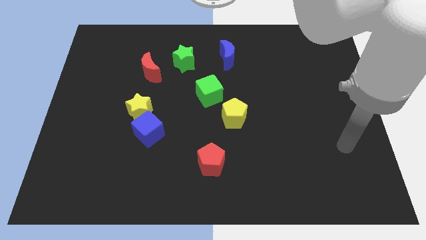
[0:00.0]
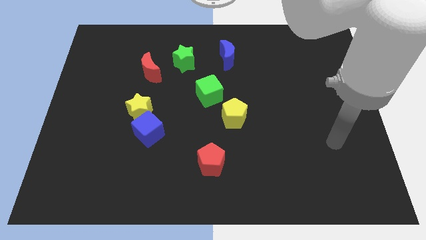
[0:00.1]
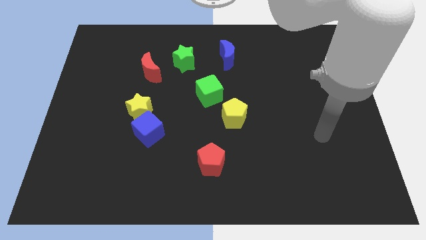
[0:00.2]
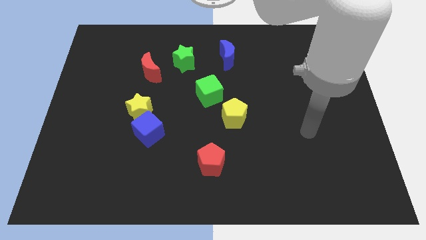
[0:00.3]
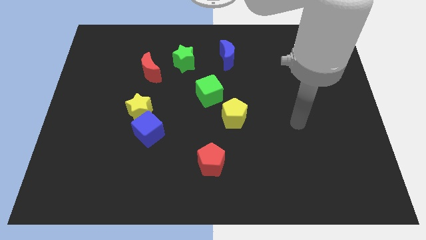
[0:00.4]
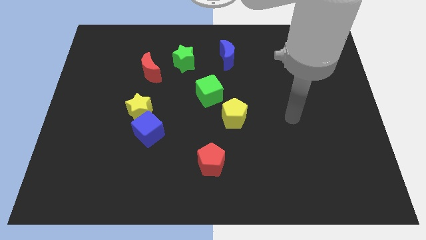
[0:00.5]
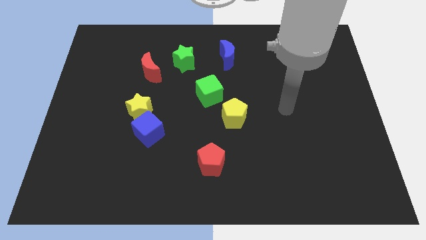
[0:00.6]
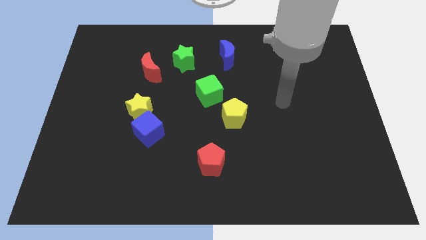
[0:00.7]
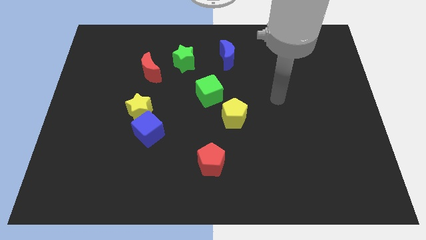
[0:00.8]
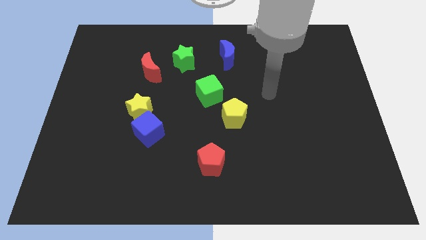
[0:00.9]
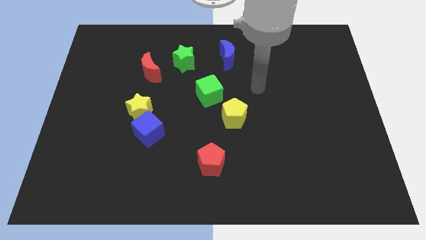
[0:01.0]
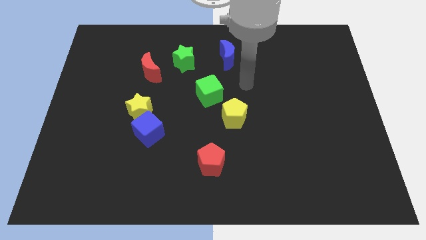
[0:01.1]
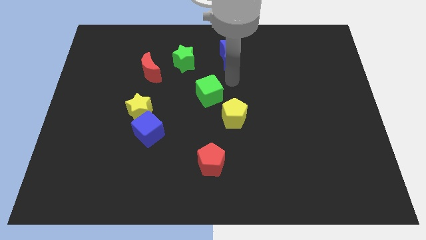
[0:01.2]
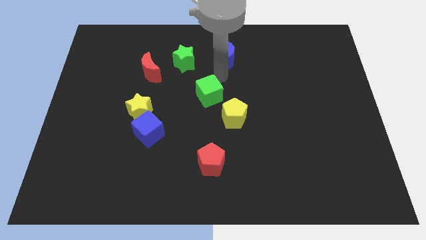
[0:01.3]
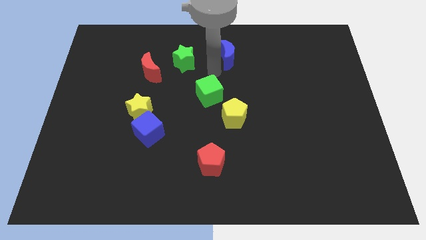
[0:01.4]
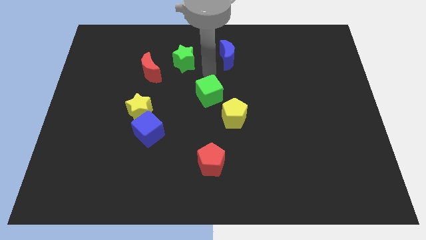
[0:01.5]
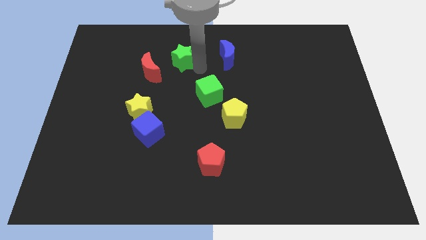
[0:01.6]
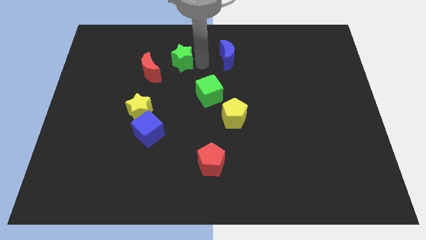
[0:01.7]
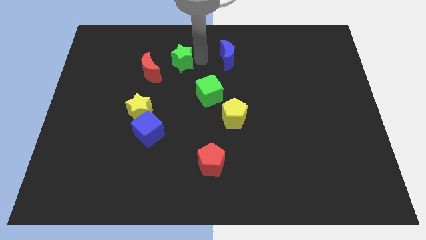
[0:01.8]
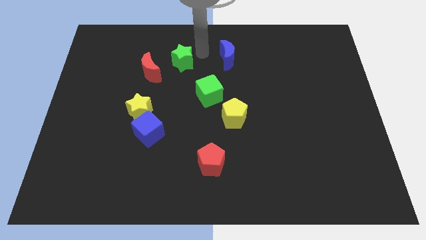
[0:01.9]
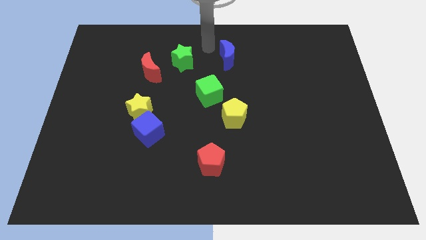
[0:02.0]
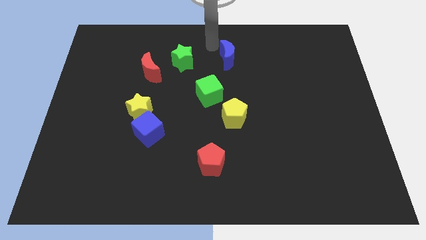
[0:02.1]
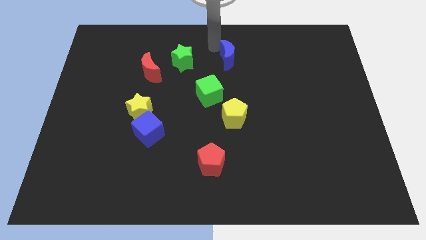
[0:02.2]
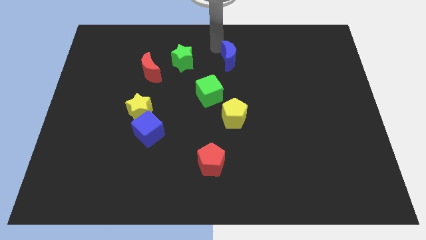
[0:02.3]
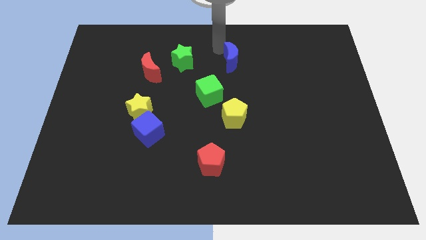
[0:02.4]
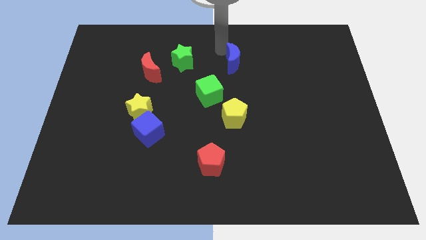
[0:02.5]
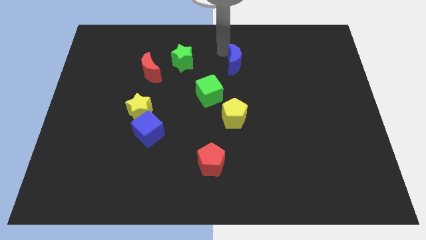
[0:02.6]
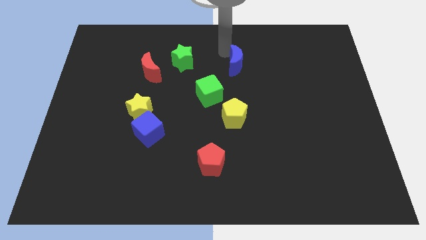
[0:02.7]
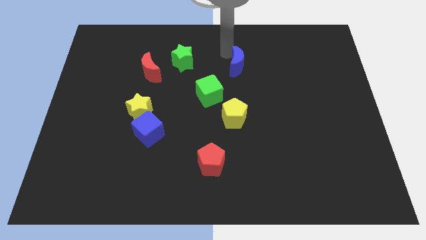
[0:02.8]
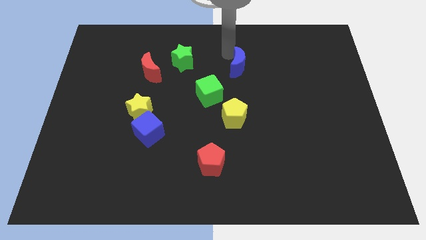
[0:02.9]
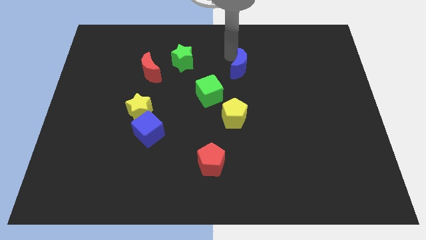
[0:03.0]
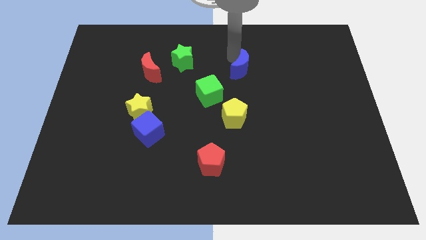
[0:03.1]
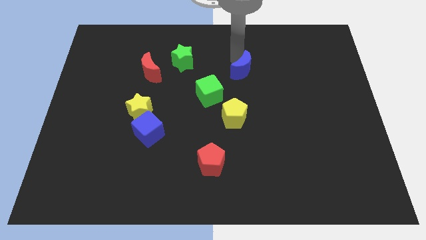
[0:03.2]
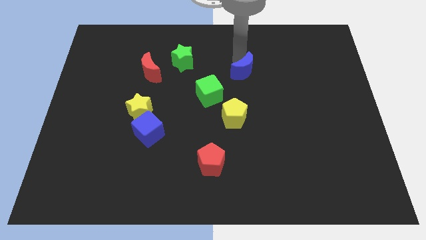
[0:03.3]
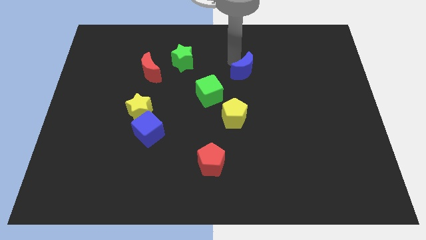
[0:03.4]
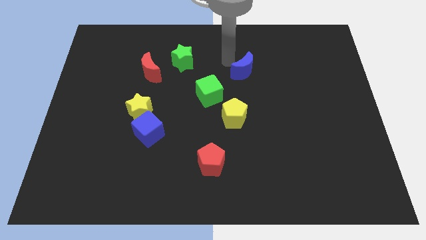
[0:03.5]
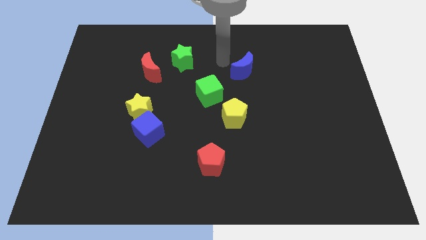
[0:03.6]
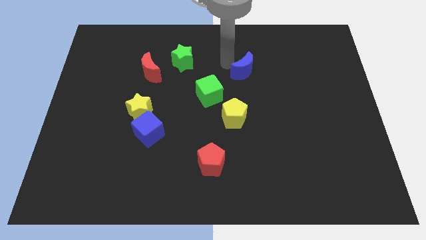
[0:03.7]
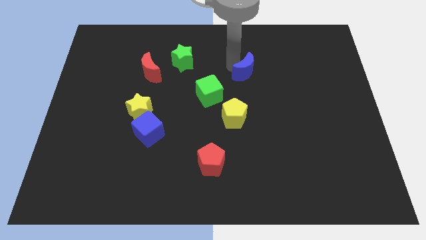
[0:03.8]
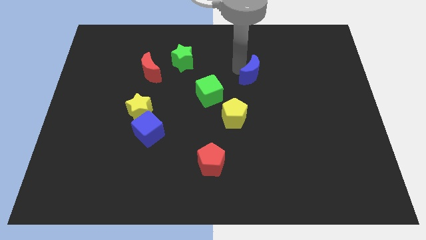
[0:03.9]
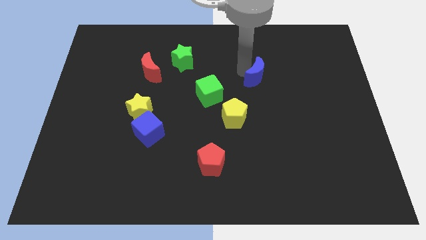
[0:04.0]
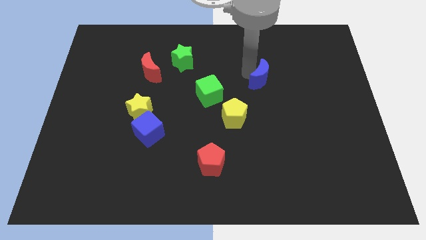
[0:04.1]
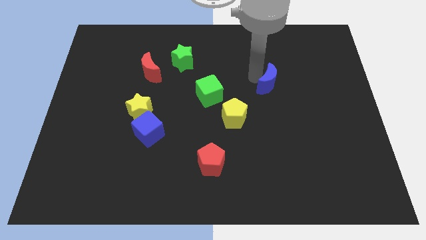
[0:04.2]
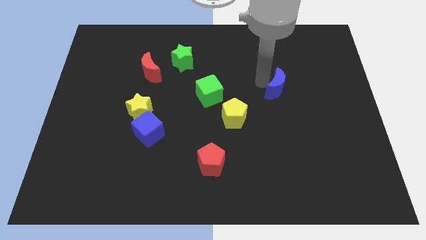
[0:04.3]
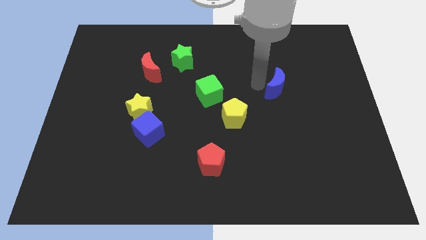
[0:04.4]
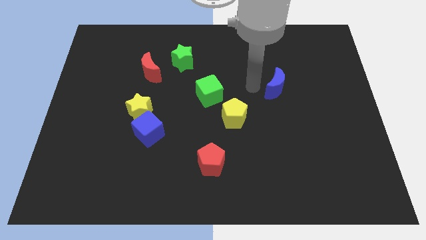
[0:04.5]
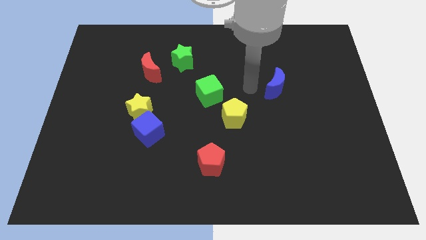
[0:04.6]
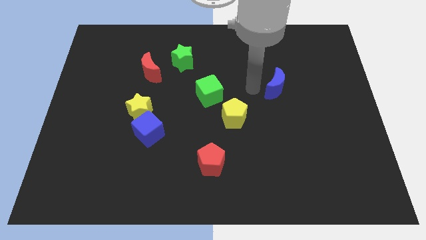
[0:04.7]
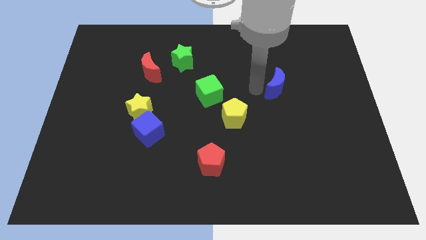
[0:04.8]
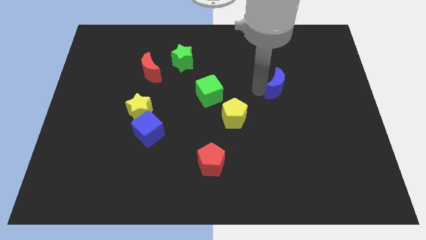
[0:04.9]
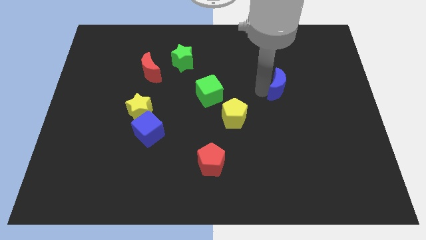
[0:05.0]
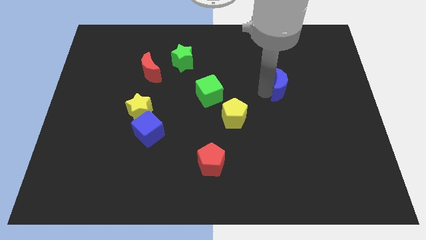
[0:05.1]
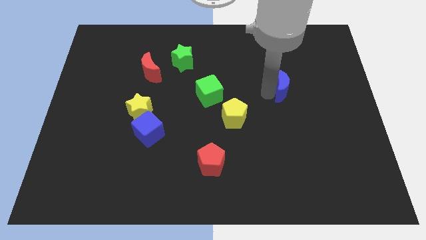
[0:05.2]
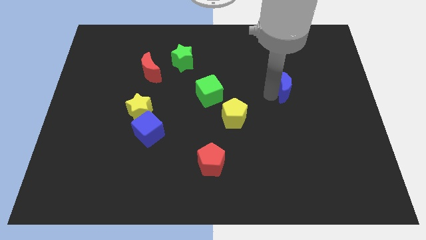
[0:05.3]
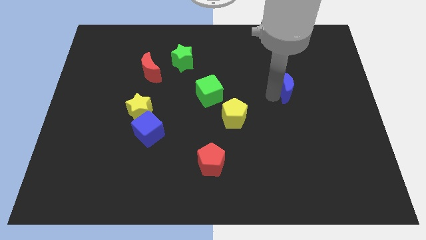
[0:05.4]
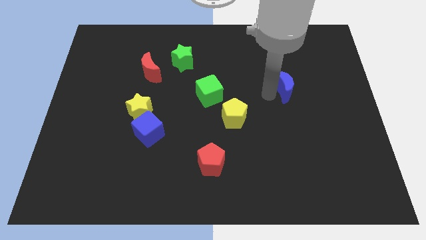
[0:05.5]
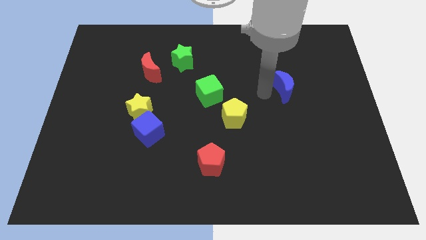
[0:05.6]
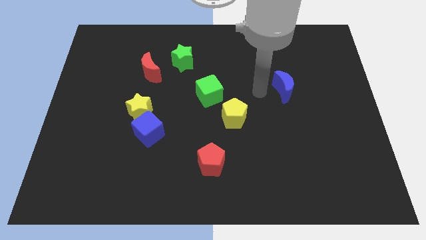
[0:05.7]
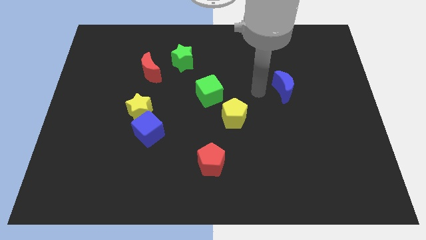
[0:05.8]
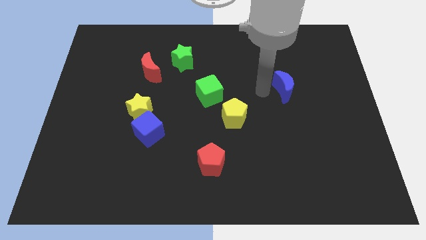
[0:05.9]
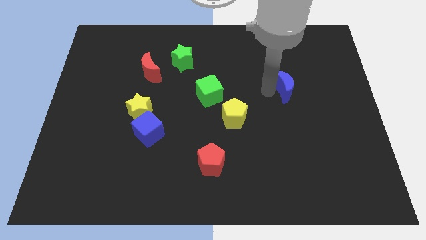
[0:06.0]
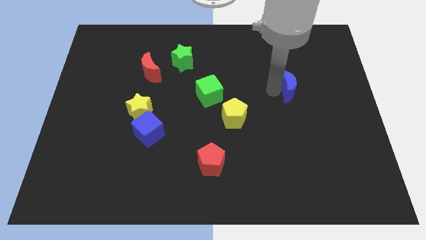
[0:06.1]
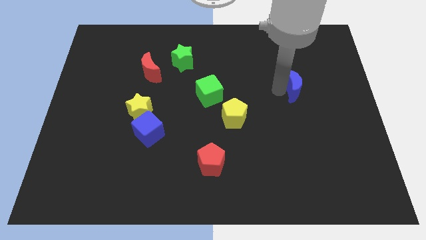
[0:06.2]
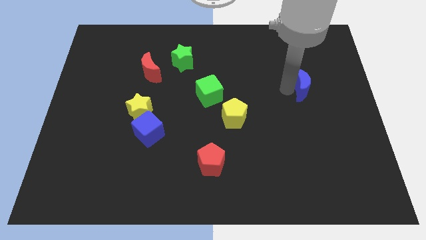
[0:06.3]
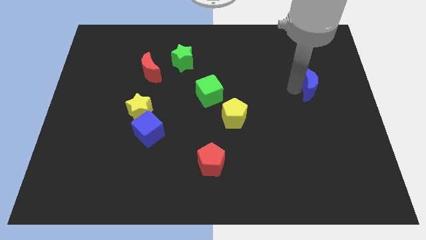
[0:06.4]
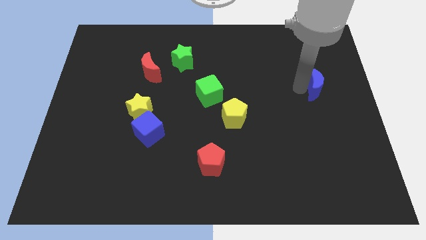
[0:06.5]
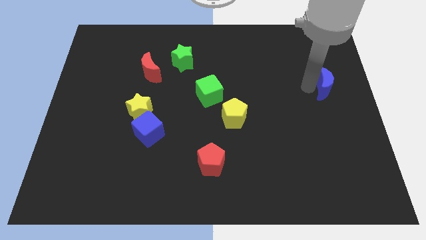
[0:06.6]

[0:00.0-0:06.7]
move the blue moon to the center right
